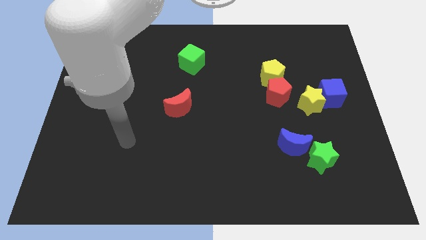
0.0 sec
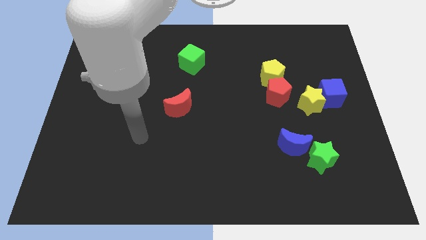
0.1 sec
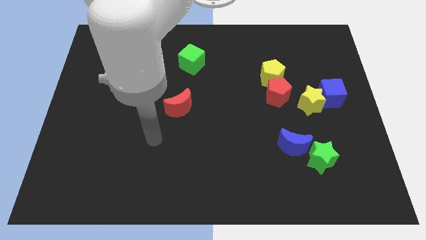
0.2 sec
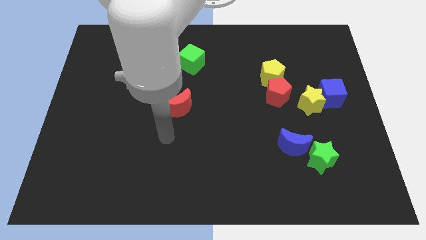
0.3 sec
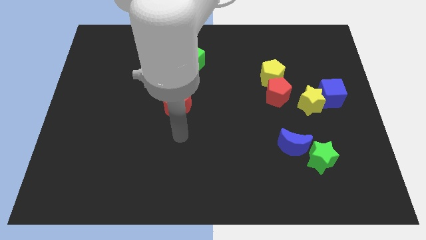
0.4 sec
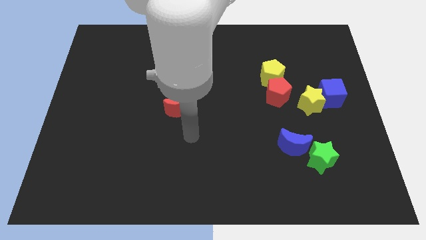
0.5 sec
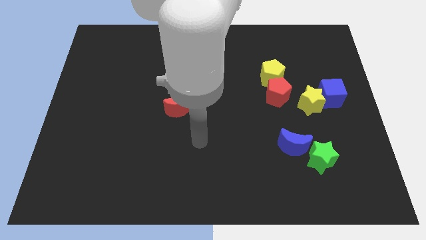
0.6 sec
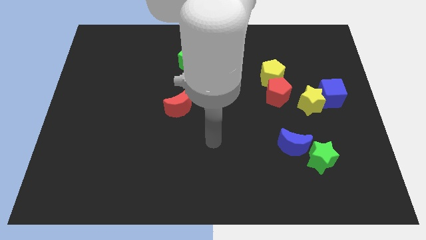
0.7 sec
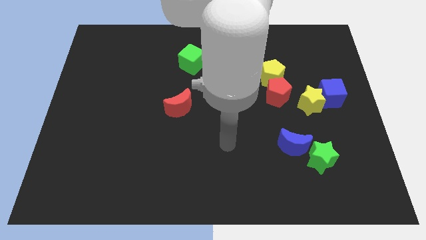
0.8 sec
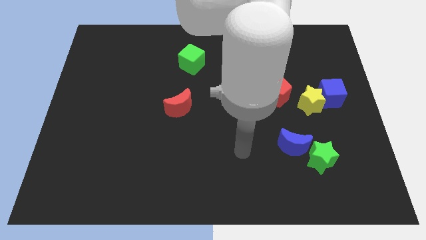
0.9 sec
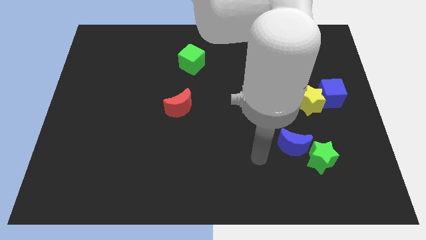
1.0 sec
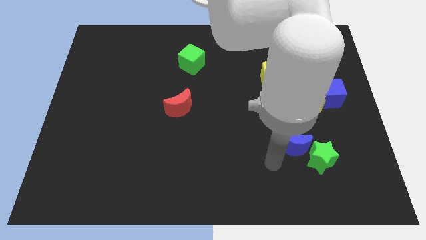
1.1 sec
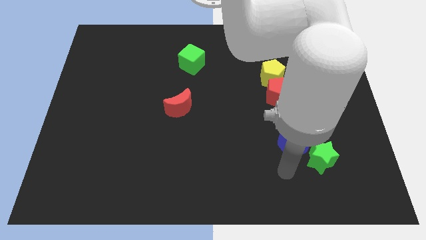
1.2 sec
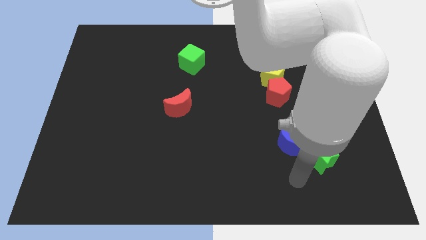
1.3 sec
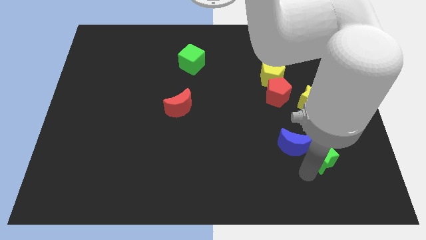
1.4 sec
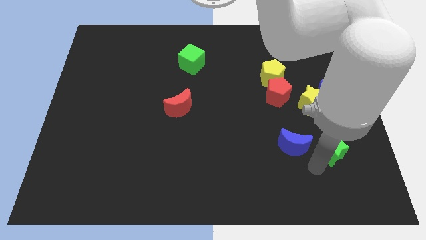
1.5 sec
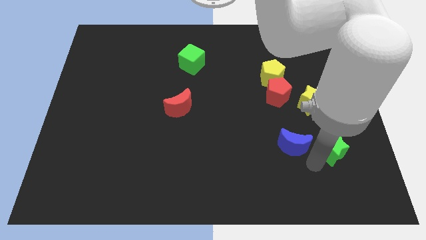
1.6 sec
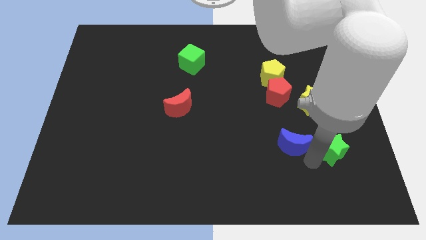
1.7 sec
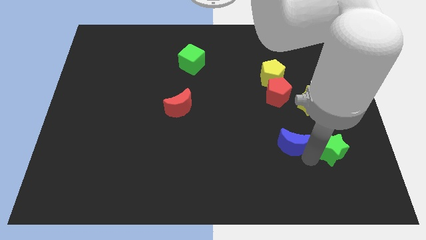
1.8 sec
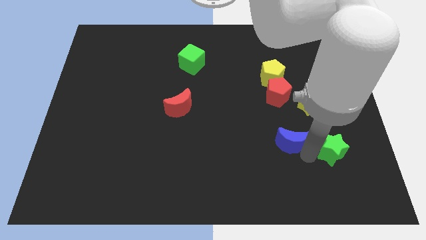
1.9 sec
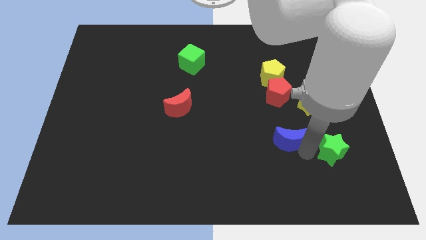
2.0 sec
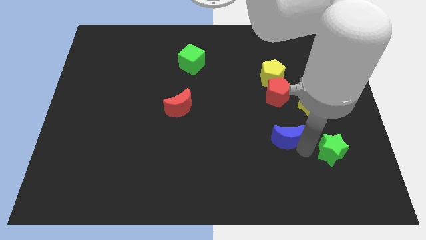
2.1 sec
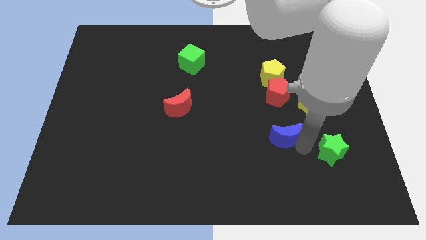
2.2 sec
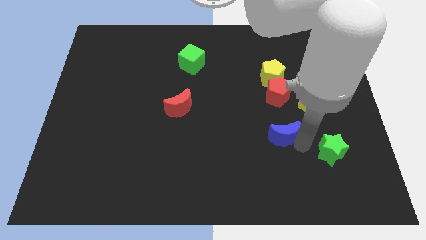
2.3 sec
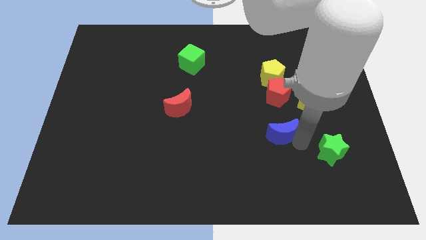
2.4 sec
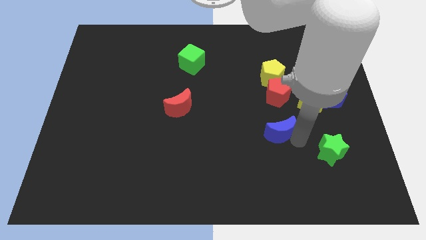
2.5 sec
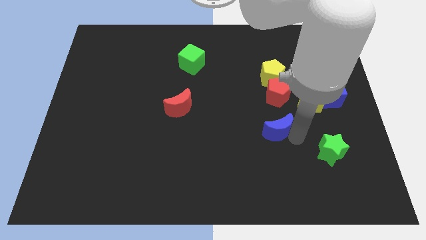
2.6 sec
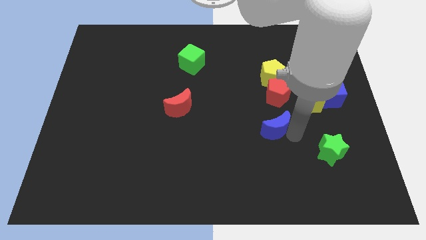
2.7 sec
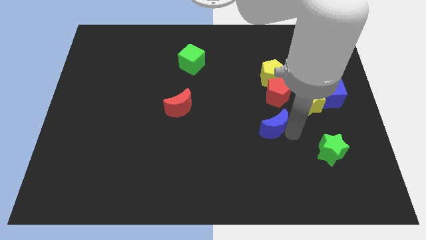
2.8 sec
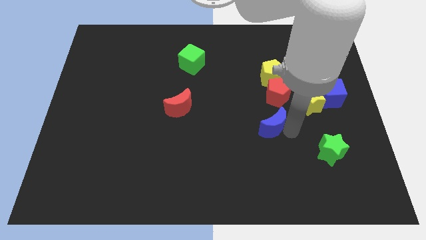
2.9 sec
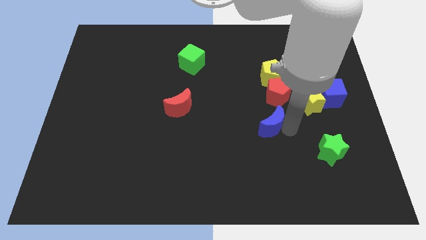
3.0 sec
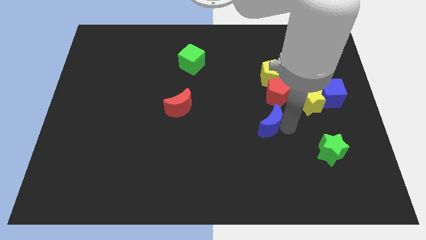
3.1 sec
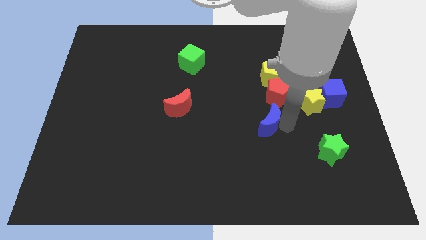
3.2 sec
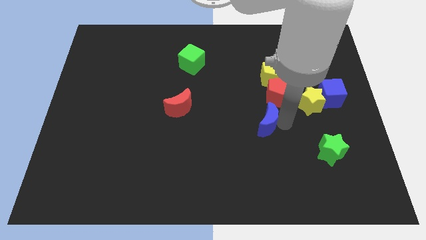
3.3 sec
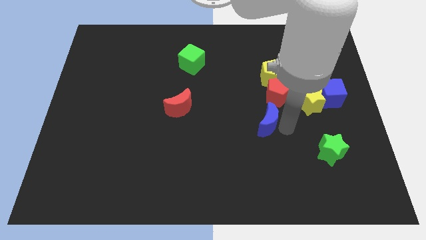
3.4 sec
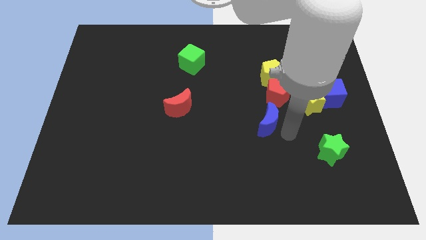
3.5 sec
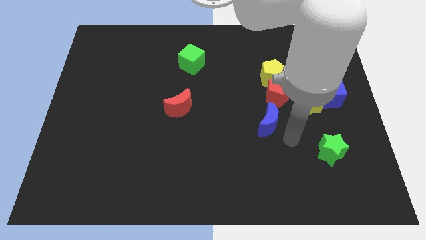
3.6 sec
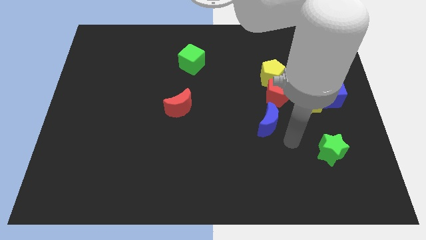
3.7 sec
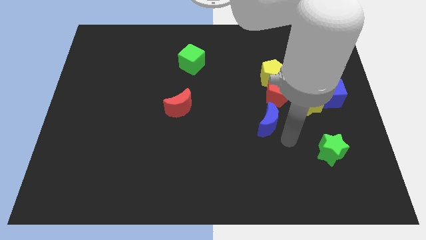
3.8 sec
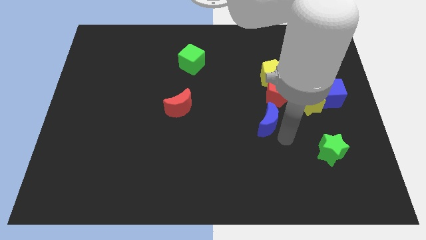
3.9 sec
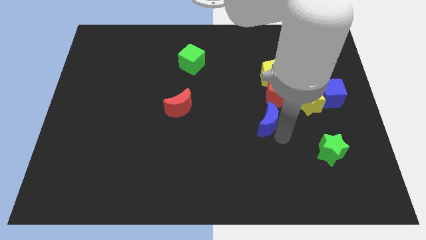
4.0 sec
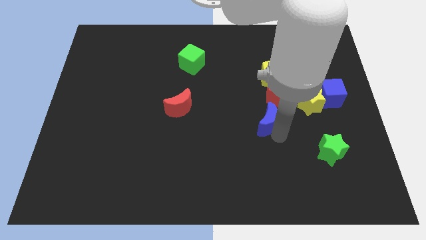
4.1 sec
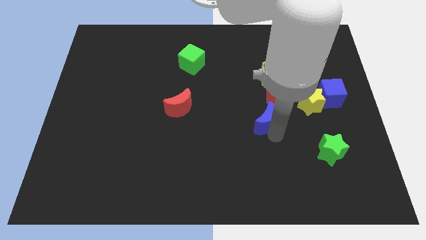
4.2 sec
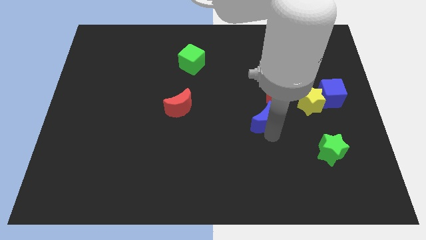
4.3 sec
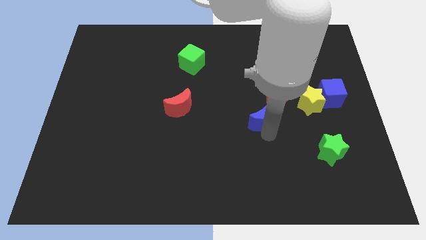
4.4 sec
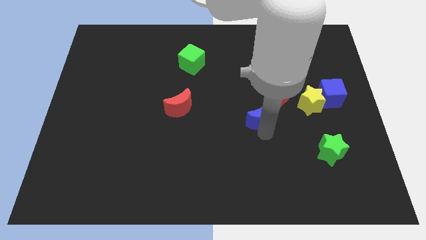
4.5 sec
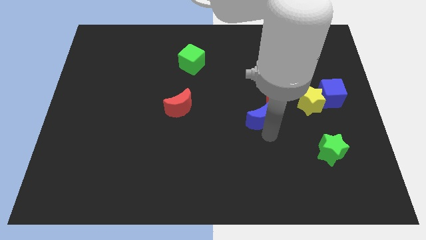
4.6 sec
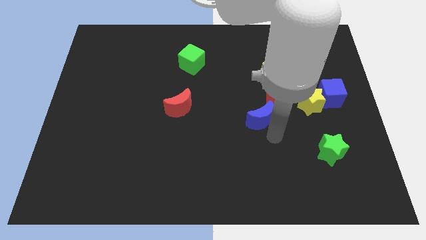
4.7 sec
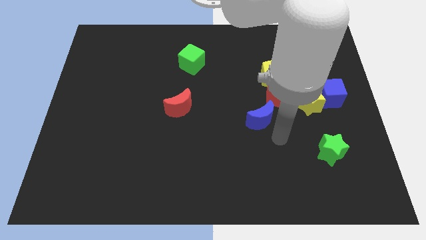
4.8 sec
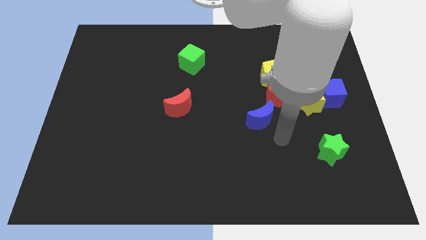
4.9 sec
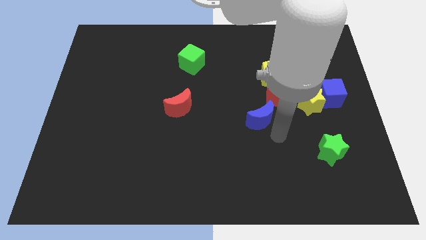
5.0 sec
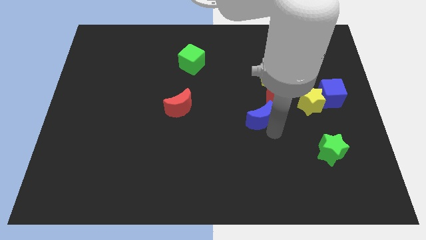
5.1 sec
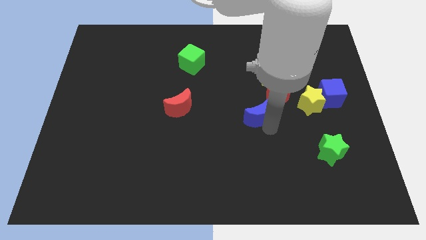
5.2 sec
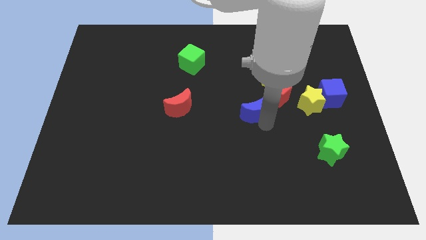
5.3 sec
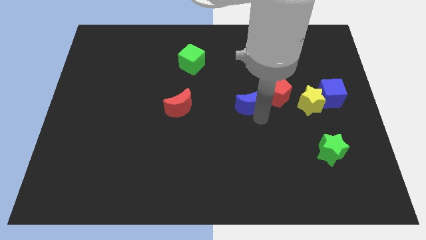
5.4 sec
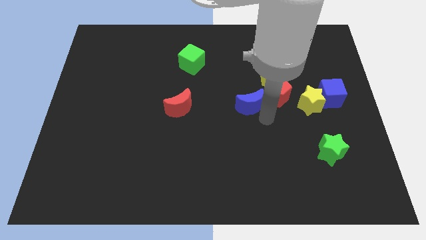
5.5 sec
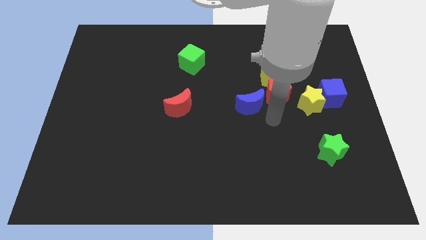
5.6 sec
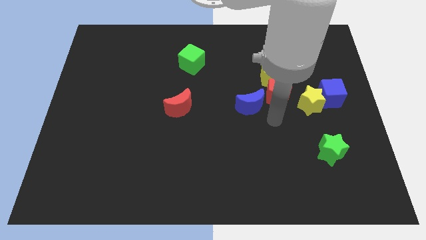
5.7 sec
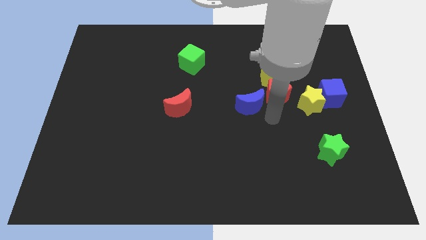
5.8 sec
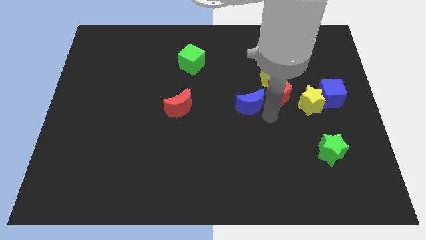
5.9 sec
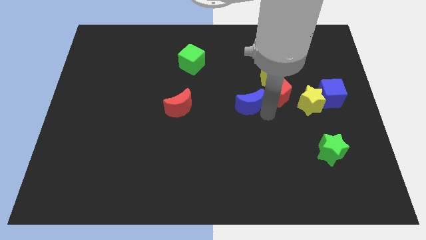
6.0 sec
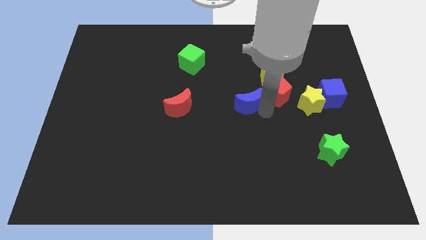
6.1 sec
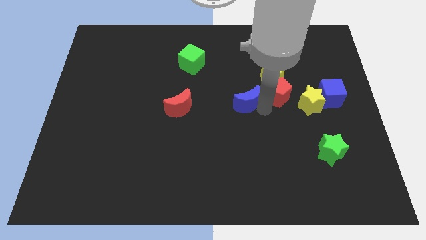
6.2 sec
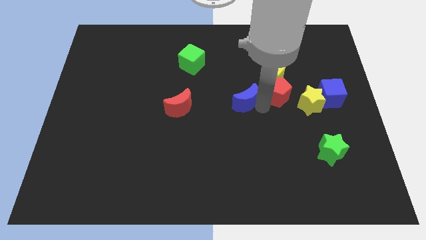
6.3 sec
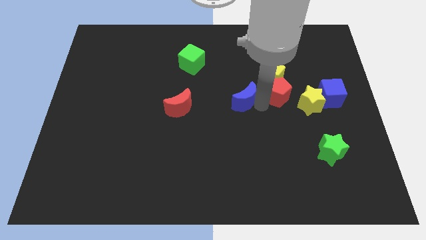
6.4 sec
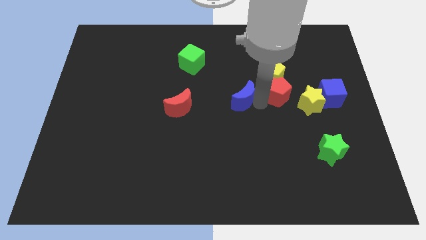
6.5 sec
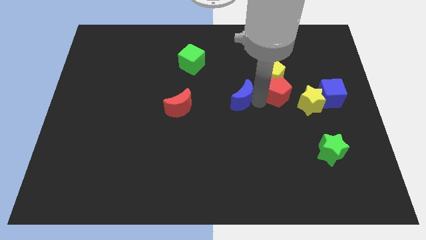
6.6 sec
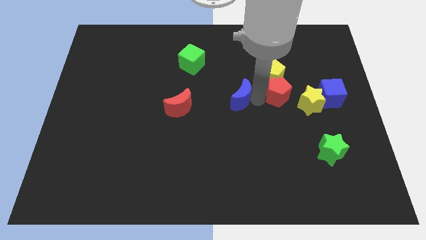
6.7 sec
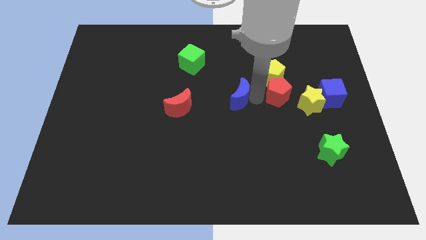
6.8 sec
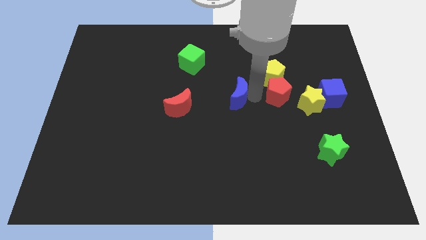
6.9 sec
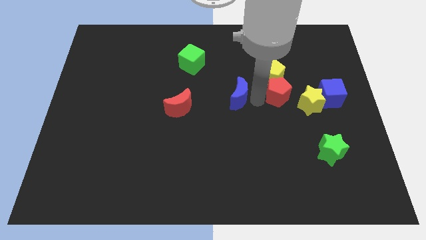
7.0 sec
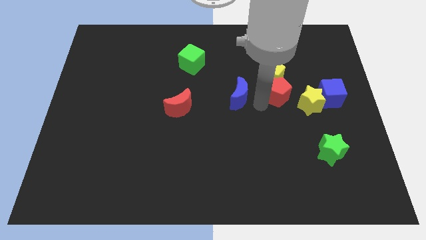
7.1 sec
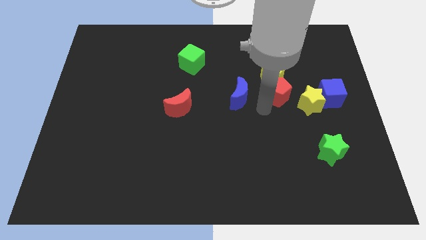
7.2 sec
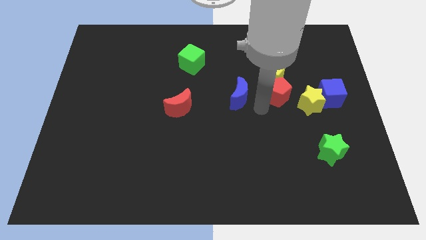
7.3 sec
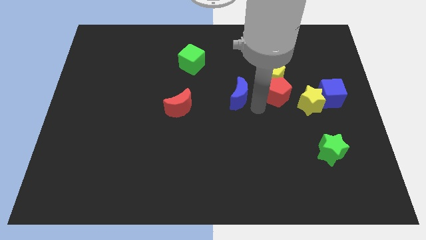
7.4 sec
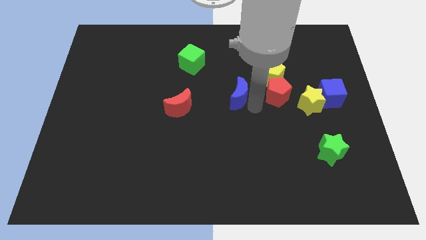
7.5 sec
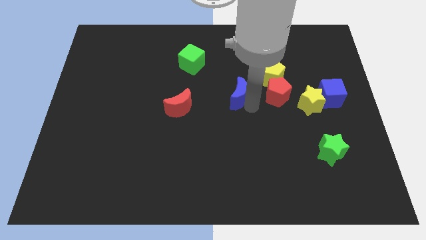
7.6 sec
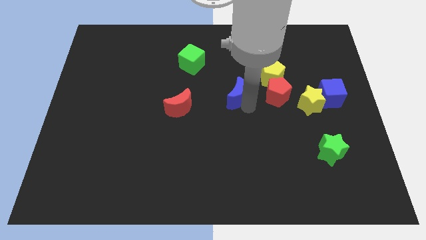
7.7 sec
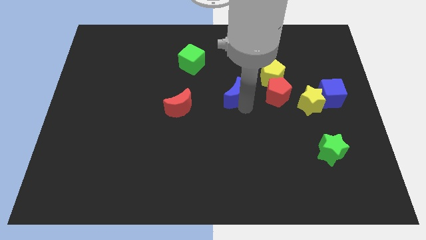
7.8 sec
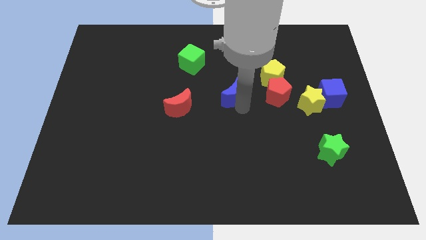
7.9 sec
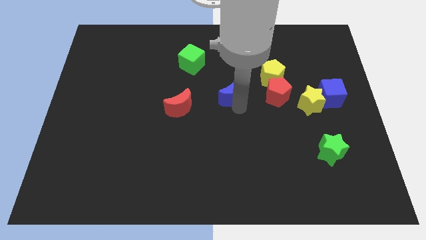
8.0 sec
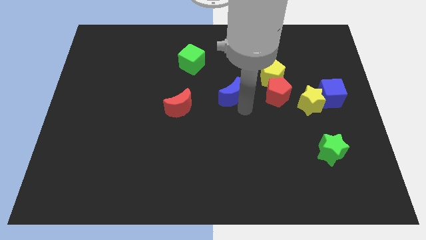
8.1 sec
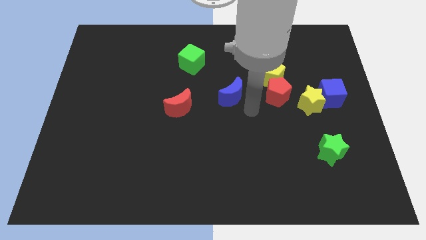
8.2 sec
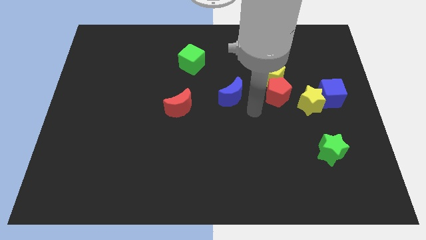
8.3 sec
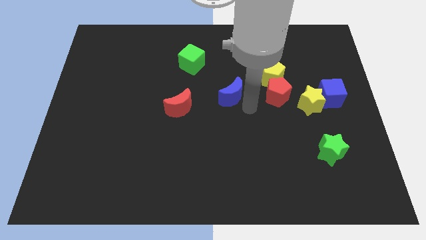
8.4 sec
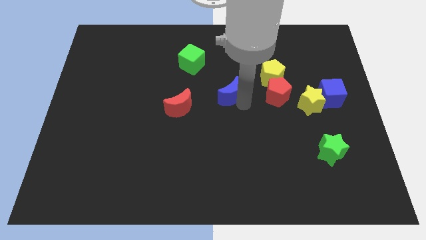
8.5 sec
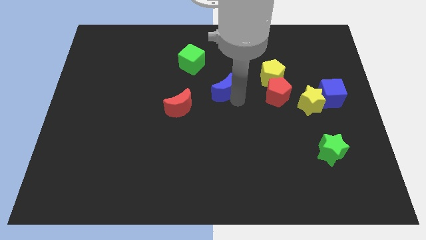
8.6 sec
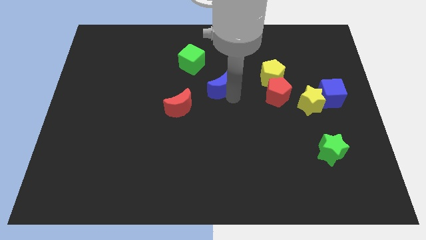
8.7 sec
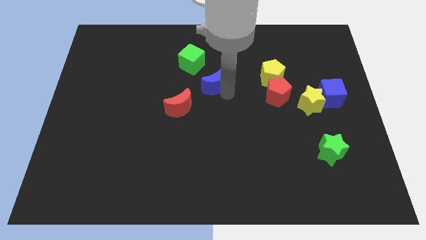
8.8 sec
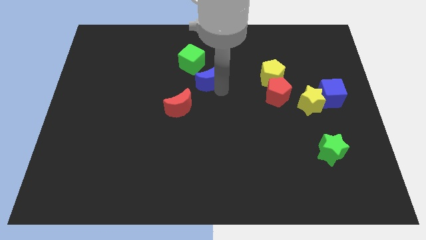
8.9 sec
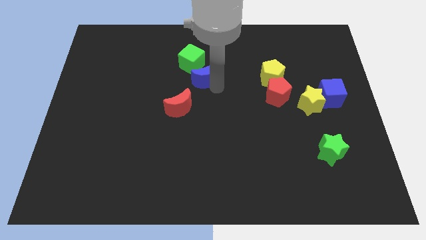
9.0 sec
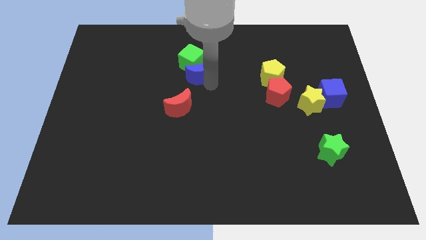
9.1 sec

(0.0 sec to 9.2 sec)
slide the blue moon next to the green cube
